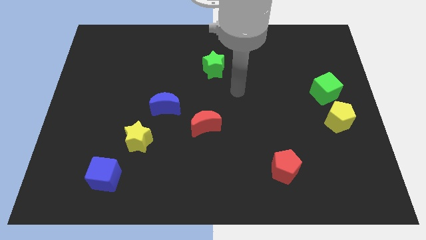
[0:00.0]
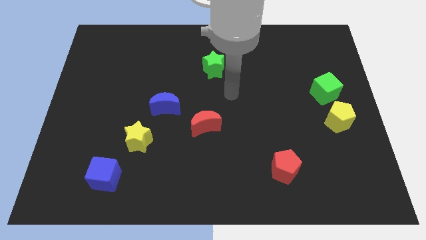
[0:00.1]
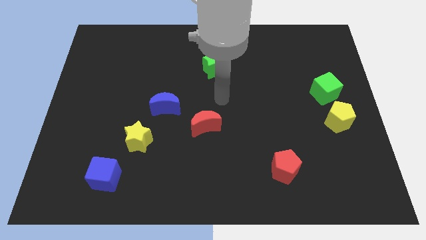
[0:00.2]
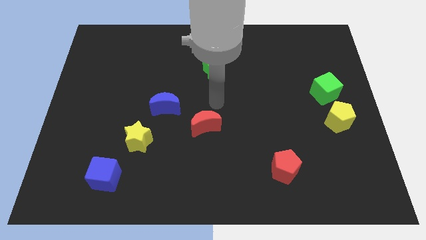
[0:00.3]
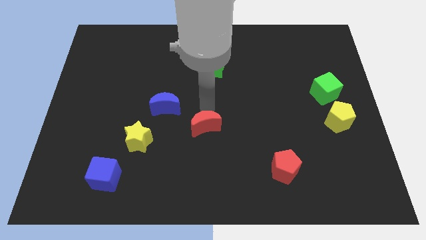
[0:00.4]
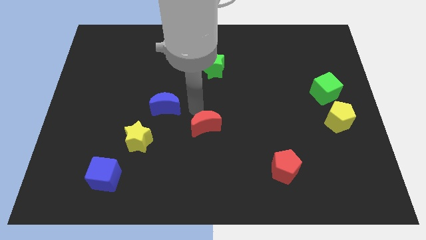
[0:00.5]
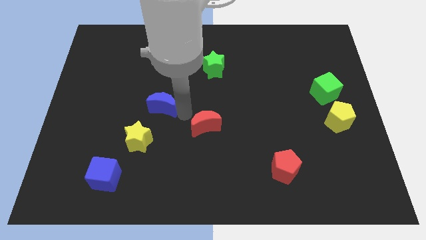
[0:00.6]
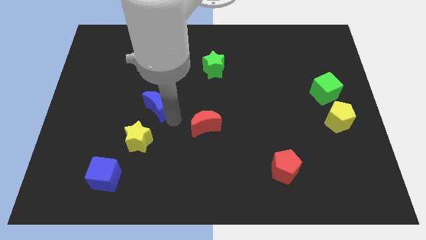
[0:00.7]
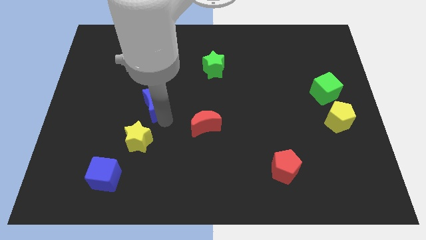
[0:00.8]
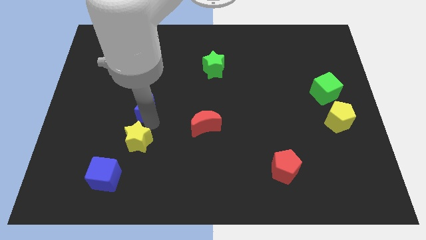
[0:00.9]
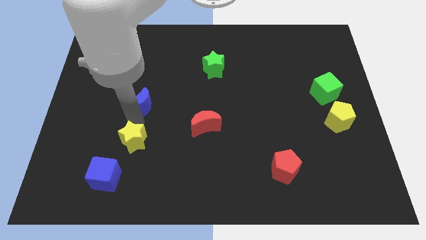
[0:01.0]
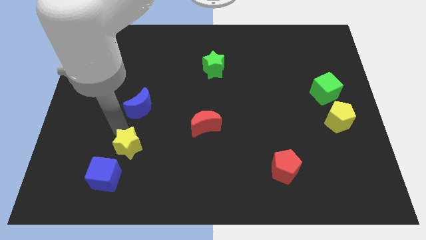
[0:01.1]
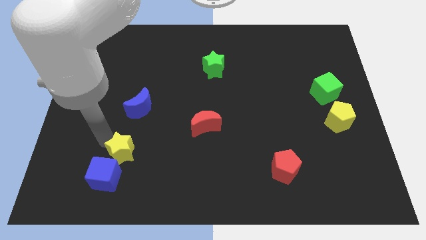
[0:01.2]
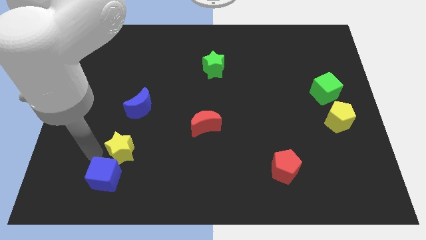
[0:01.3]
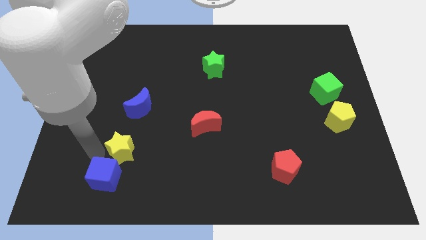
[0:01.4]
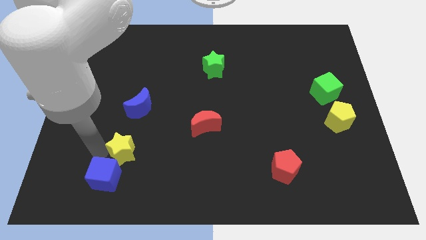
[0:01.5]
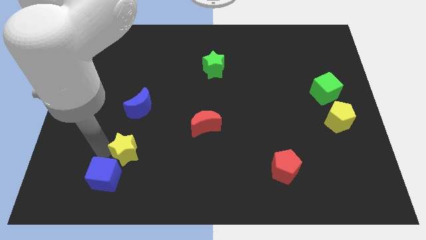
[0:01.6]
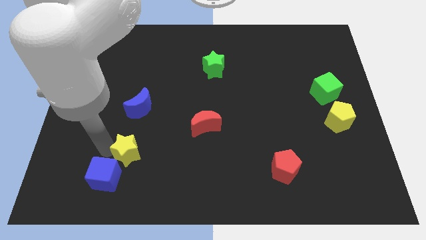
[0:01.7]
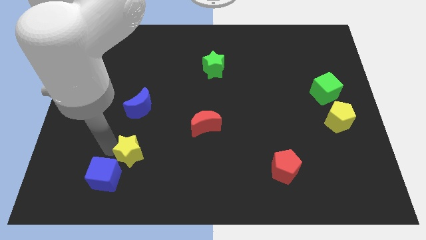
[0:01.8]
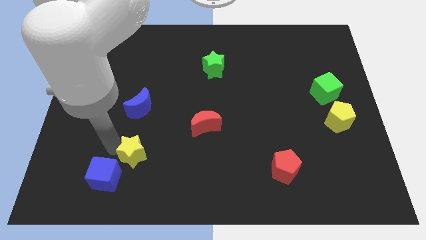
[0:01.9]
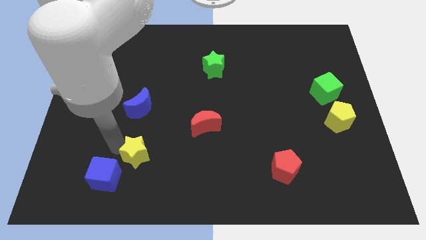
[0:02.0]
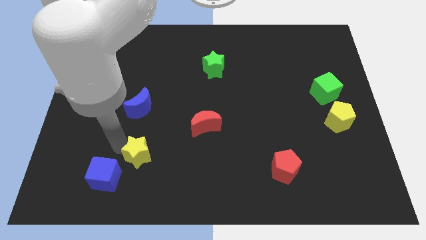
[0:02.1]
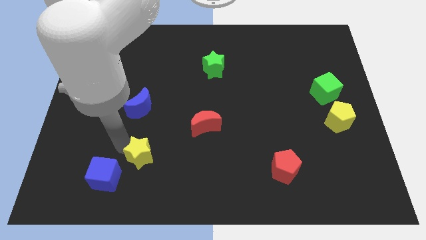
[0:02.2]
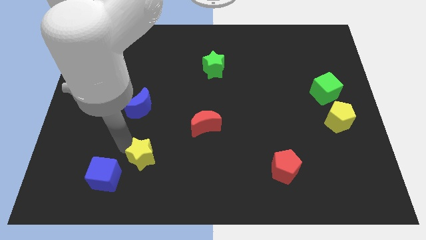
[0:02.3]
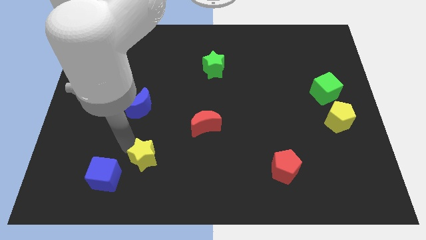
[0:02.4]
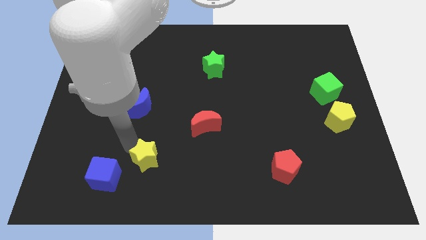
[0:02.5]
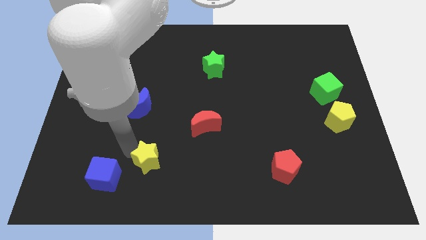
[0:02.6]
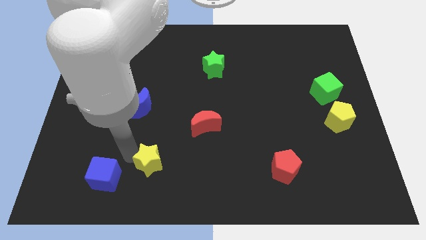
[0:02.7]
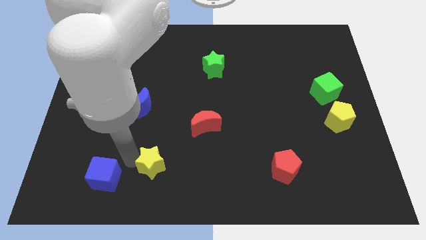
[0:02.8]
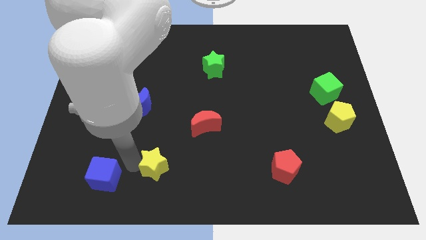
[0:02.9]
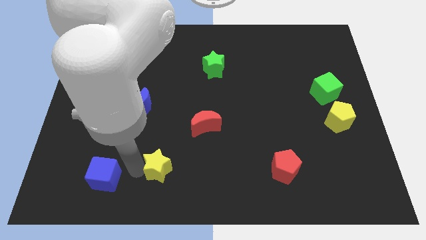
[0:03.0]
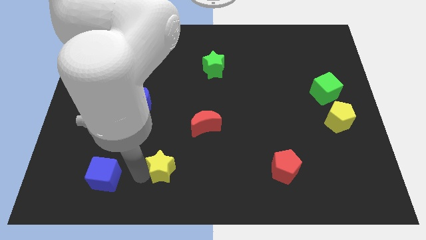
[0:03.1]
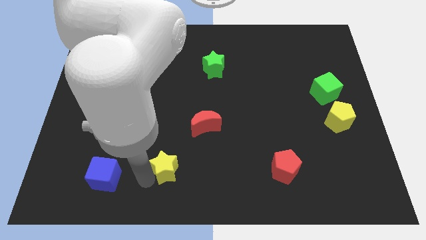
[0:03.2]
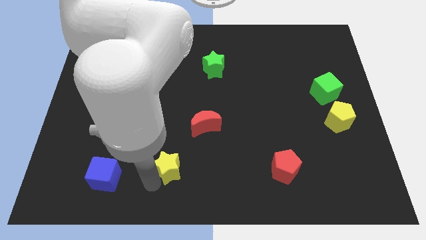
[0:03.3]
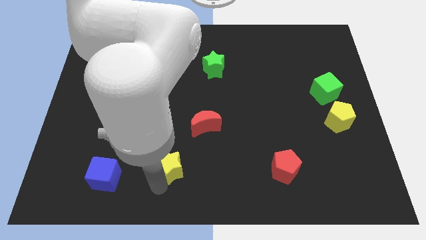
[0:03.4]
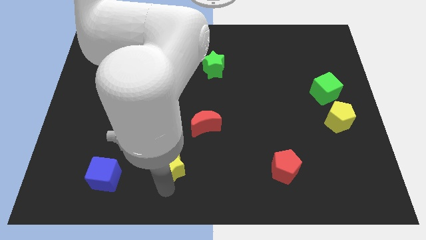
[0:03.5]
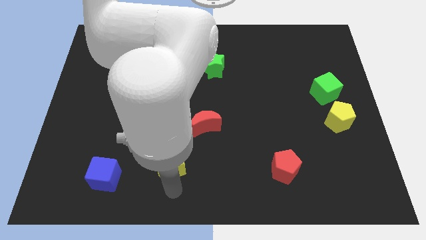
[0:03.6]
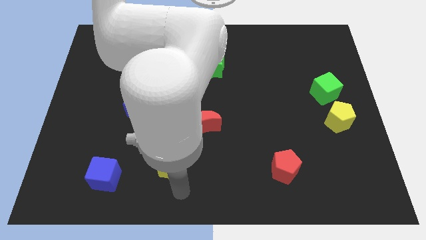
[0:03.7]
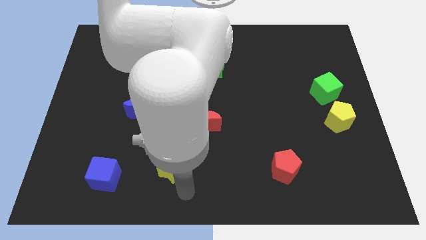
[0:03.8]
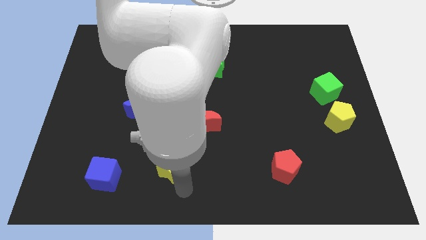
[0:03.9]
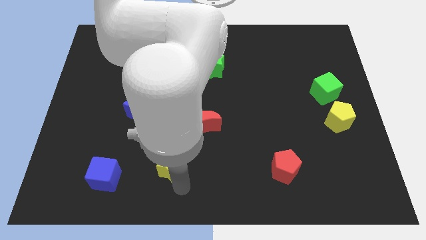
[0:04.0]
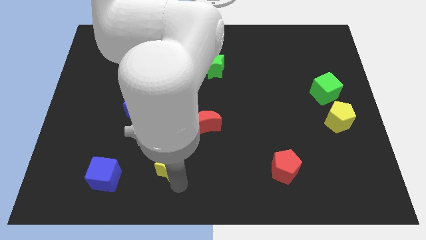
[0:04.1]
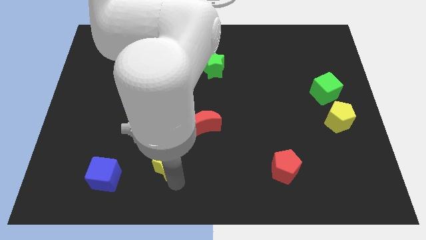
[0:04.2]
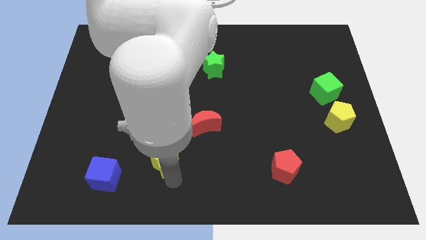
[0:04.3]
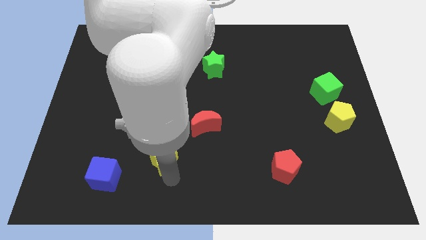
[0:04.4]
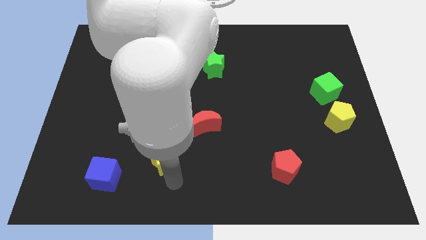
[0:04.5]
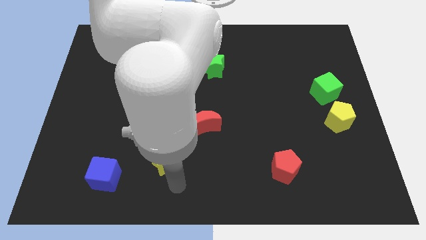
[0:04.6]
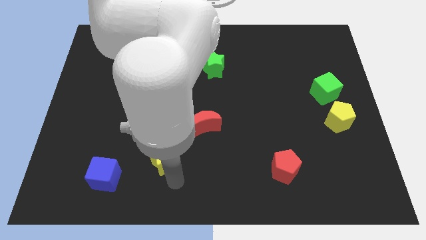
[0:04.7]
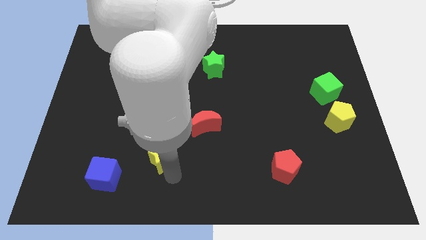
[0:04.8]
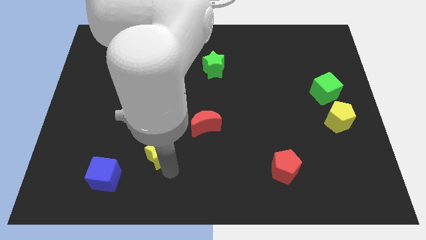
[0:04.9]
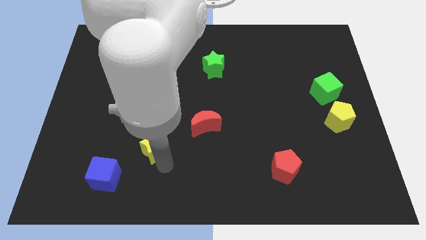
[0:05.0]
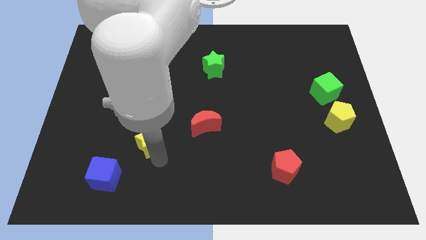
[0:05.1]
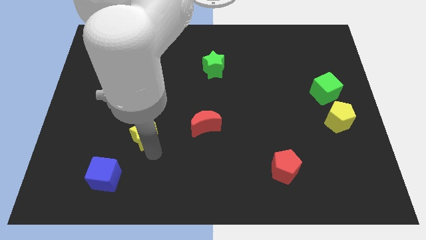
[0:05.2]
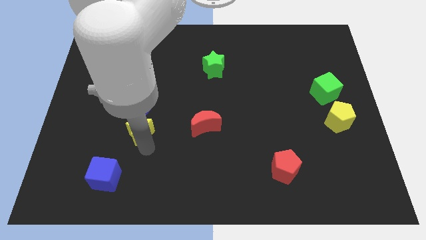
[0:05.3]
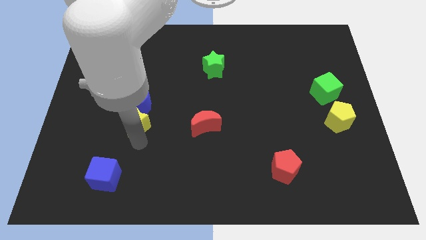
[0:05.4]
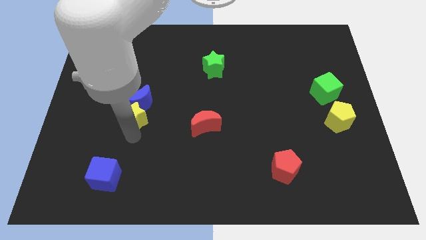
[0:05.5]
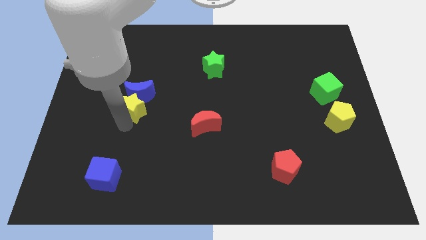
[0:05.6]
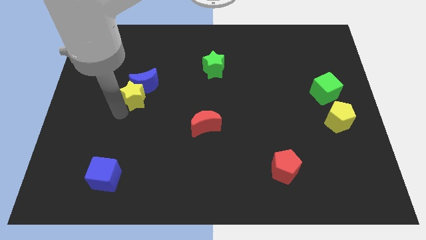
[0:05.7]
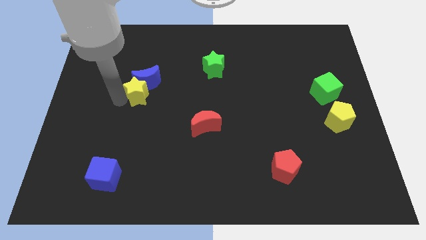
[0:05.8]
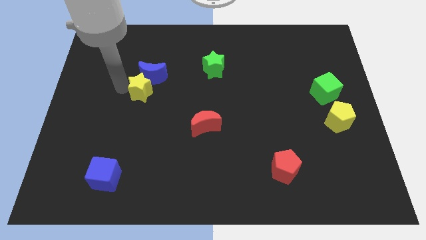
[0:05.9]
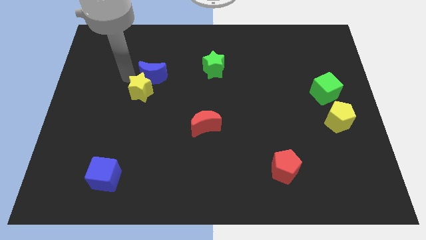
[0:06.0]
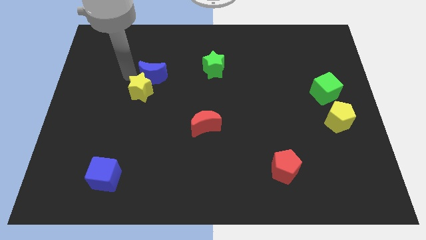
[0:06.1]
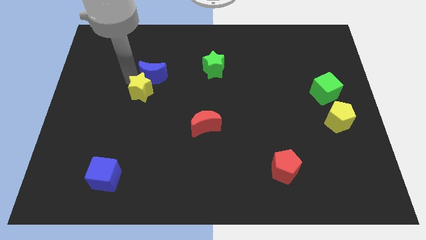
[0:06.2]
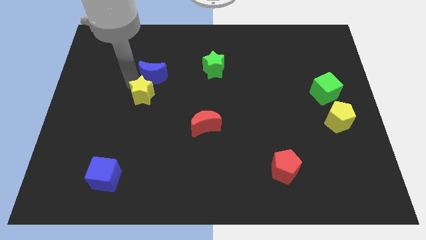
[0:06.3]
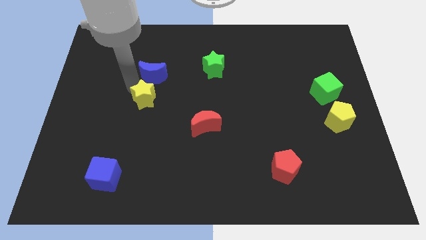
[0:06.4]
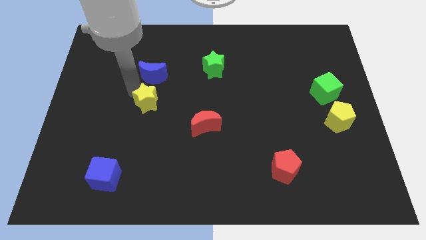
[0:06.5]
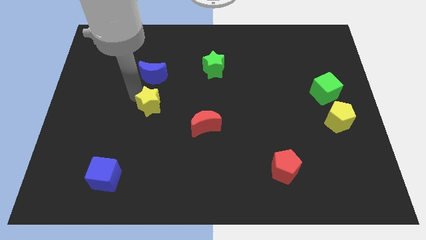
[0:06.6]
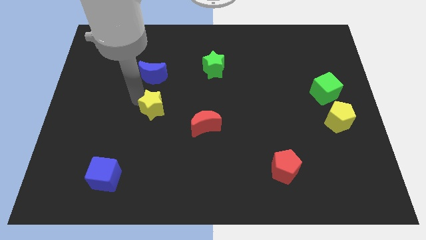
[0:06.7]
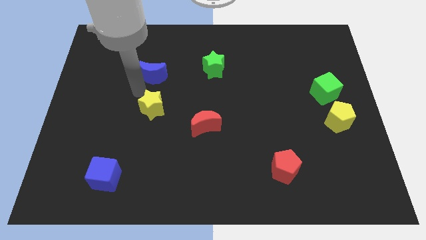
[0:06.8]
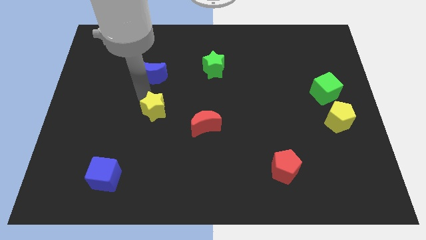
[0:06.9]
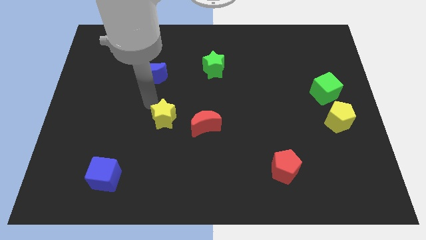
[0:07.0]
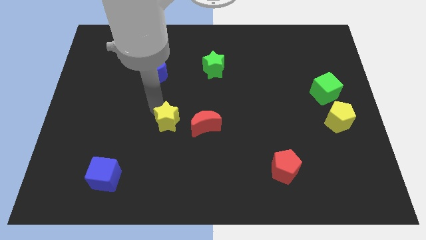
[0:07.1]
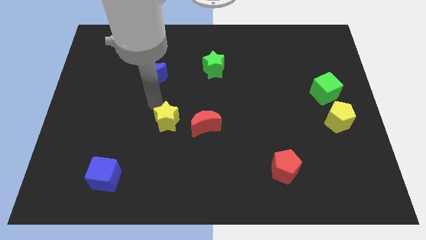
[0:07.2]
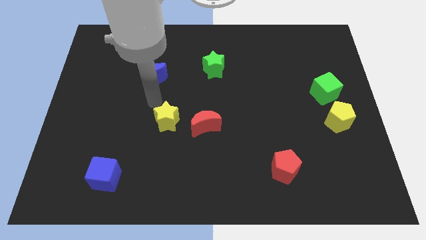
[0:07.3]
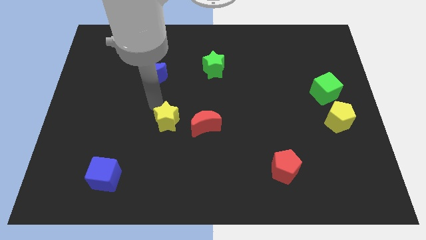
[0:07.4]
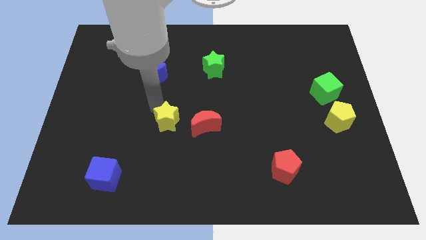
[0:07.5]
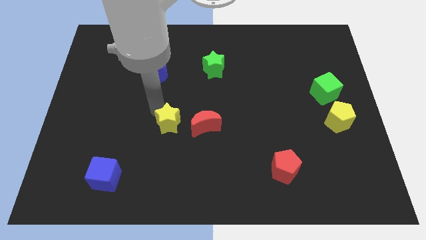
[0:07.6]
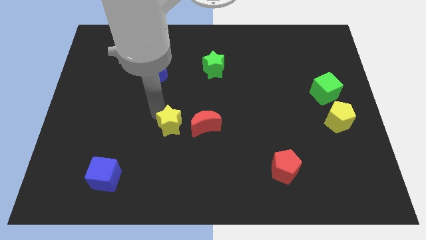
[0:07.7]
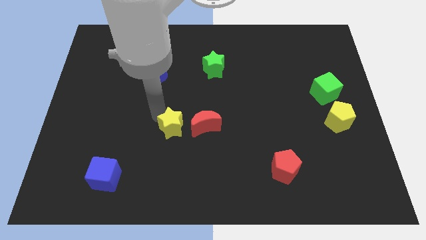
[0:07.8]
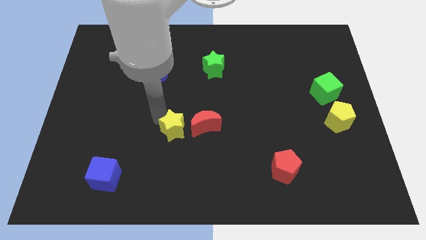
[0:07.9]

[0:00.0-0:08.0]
move the yellow star right a bit
